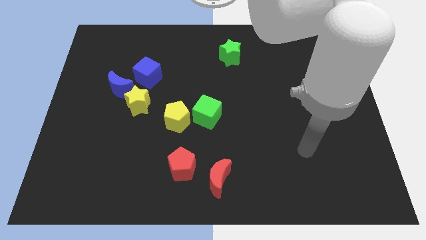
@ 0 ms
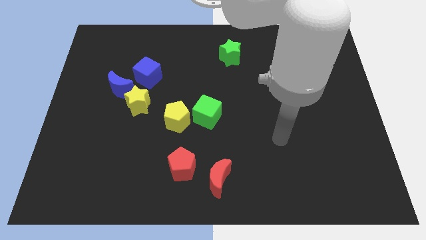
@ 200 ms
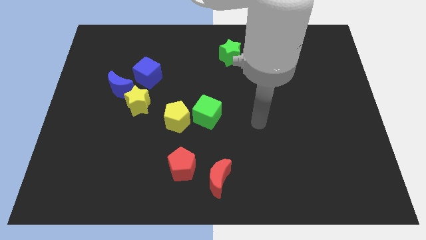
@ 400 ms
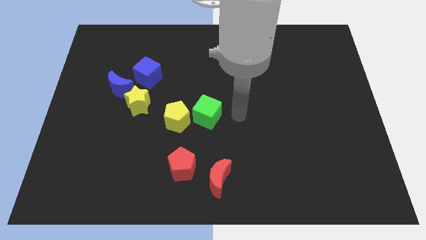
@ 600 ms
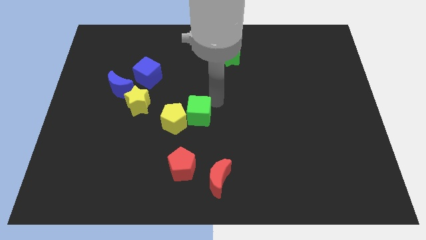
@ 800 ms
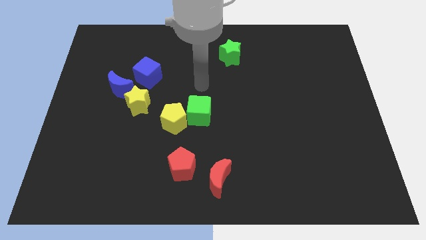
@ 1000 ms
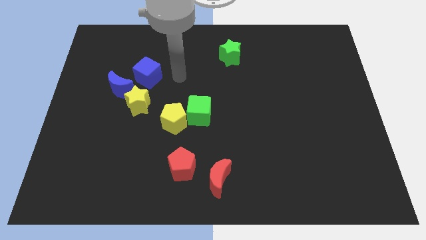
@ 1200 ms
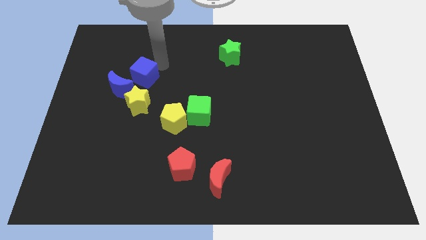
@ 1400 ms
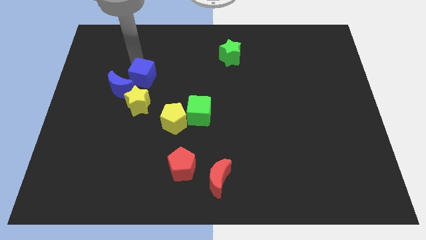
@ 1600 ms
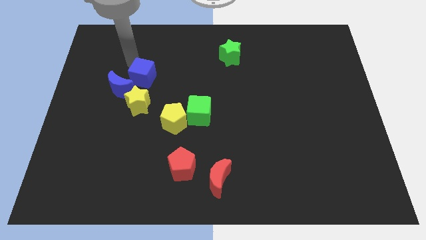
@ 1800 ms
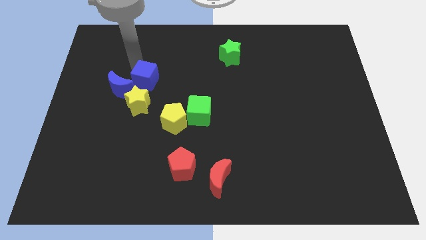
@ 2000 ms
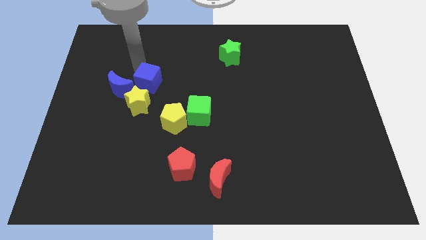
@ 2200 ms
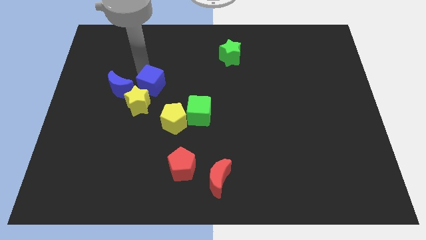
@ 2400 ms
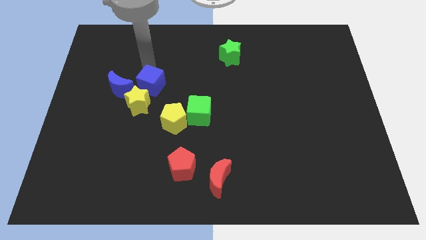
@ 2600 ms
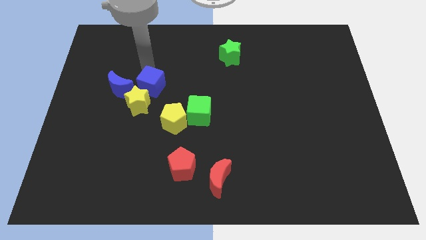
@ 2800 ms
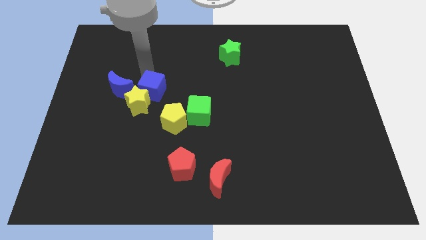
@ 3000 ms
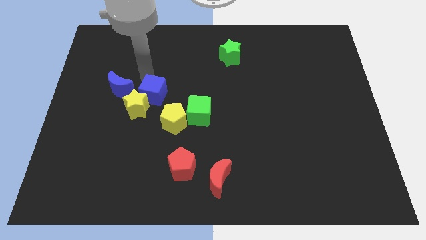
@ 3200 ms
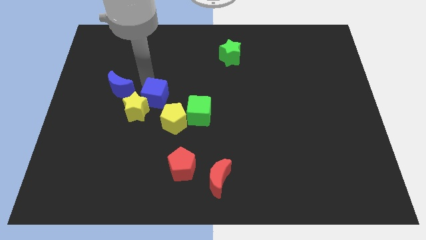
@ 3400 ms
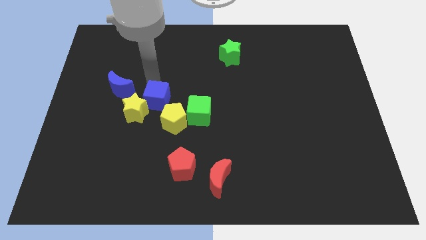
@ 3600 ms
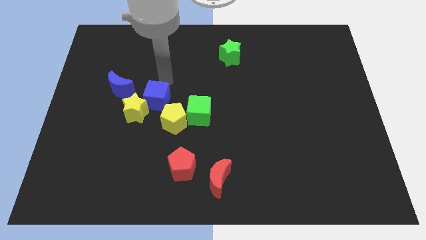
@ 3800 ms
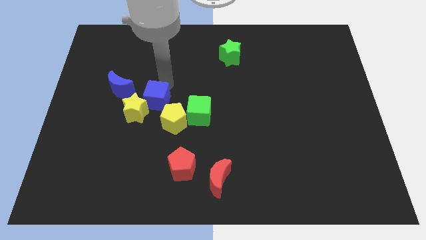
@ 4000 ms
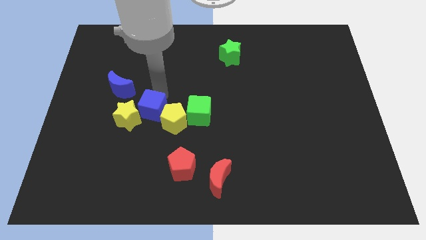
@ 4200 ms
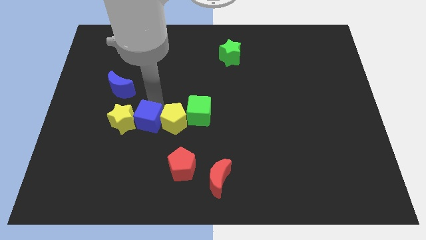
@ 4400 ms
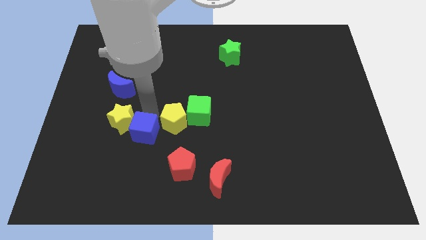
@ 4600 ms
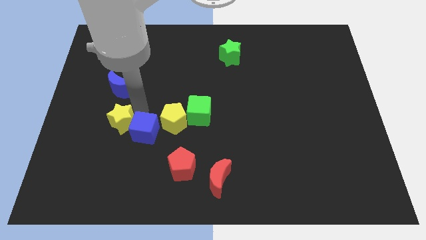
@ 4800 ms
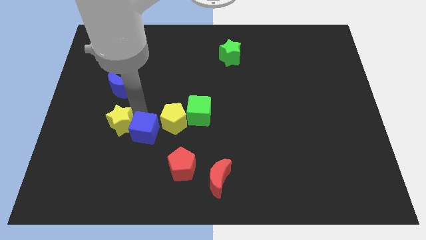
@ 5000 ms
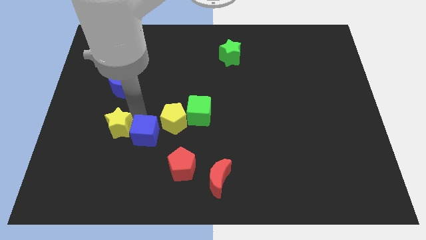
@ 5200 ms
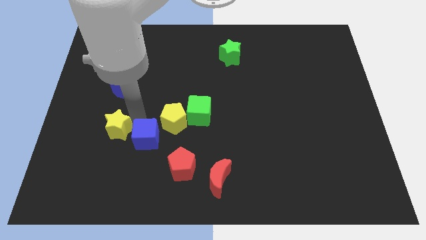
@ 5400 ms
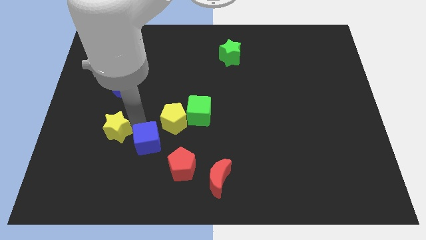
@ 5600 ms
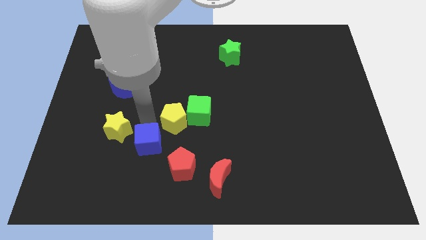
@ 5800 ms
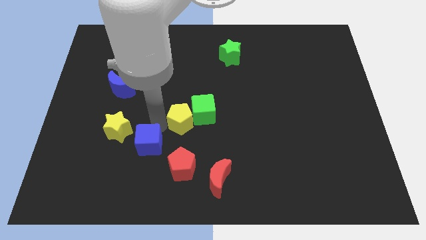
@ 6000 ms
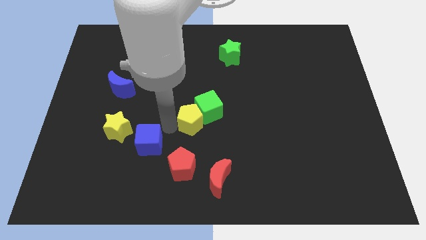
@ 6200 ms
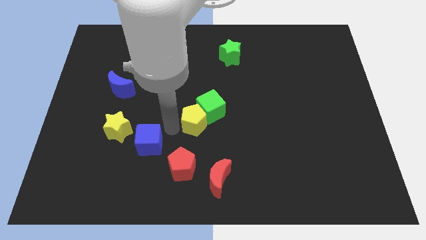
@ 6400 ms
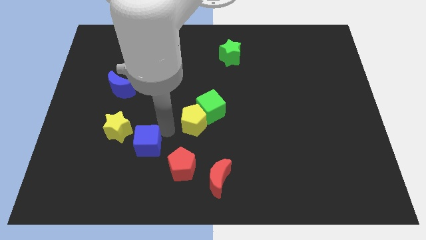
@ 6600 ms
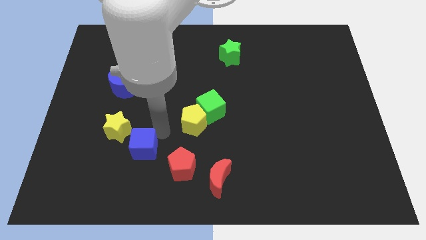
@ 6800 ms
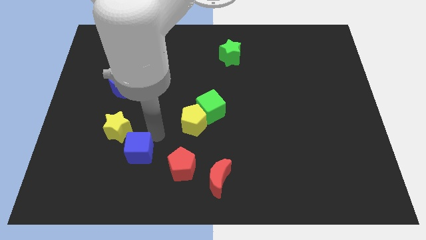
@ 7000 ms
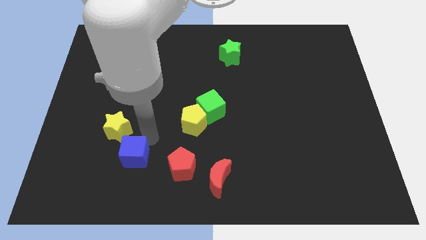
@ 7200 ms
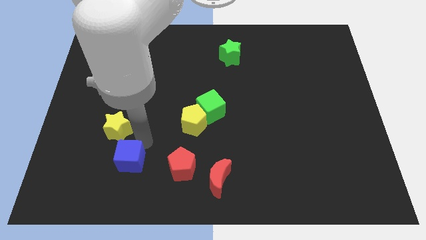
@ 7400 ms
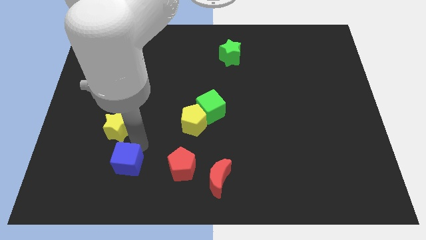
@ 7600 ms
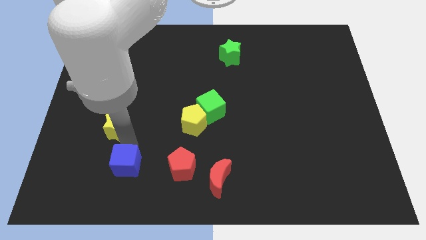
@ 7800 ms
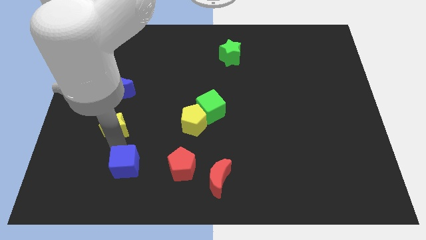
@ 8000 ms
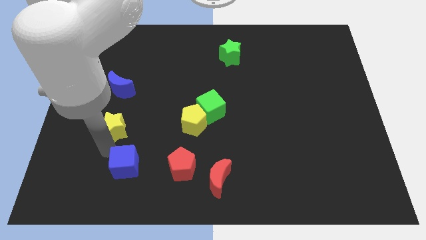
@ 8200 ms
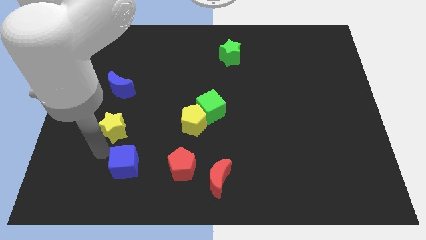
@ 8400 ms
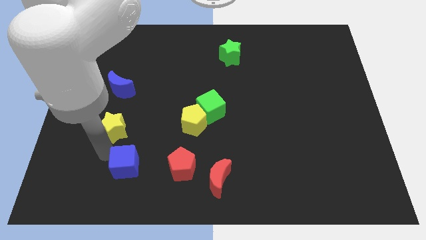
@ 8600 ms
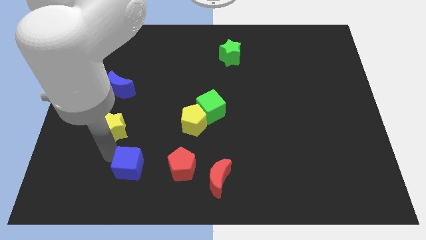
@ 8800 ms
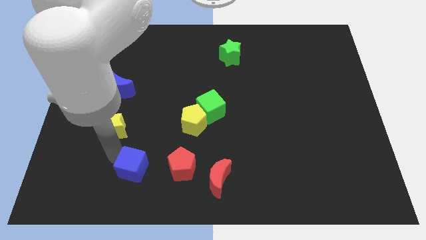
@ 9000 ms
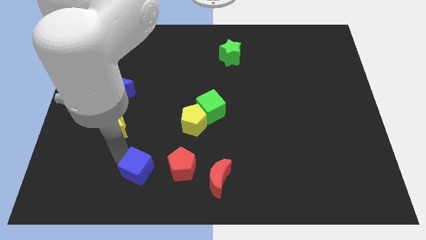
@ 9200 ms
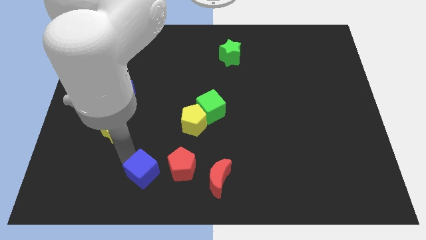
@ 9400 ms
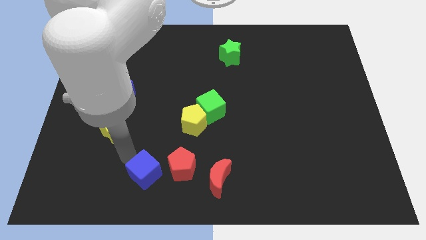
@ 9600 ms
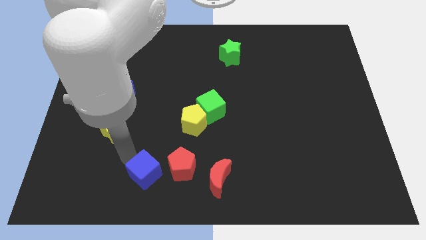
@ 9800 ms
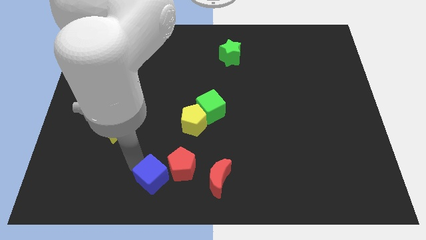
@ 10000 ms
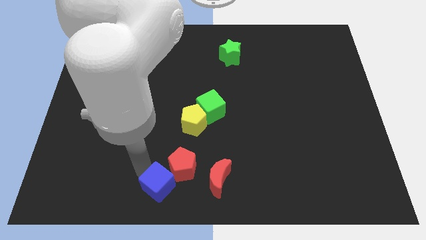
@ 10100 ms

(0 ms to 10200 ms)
move the blue cube to the bottom

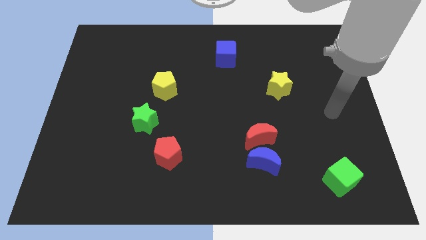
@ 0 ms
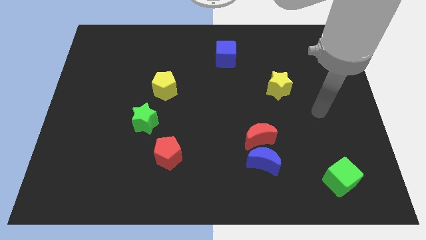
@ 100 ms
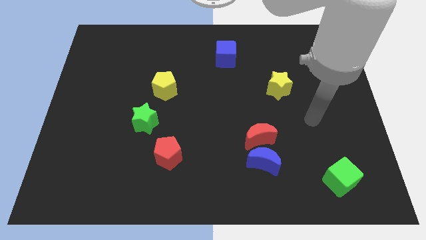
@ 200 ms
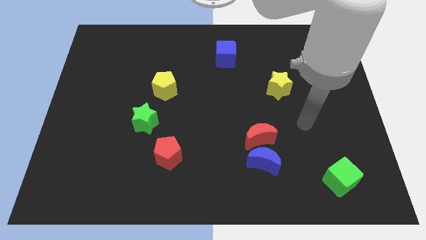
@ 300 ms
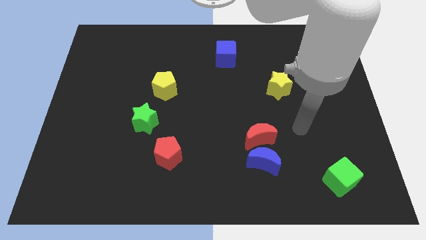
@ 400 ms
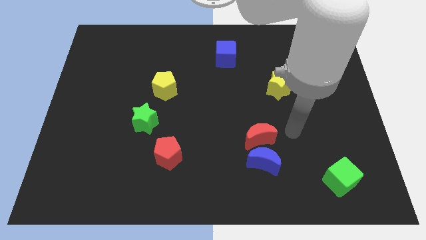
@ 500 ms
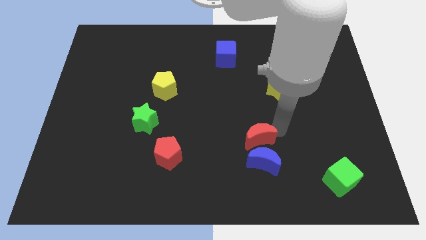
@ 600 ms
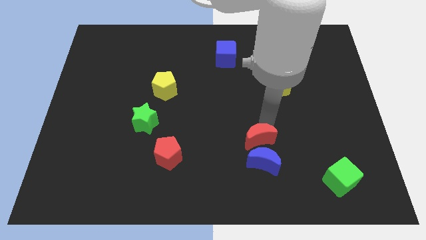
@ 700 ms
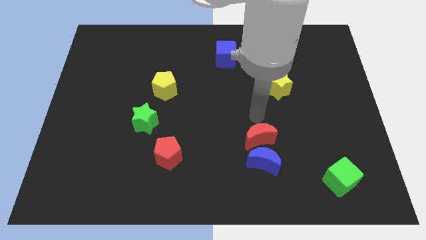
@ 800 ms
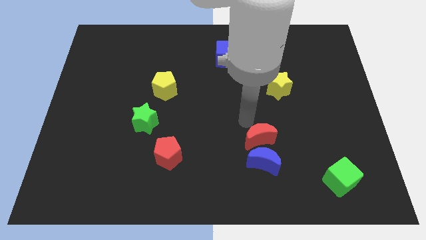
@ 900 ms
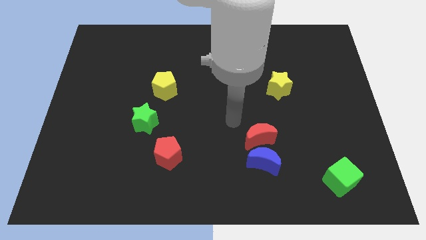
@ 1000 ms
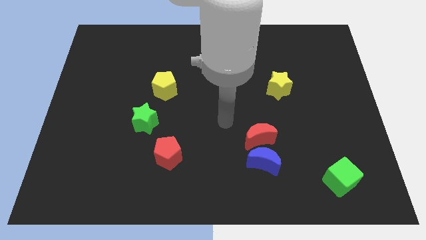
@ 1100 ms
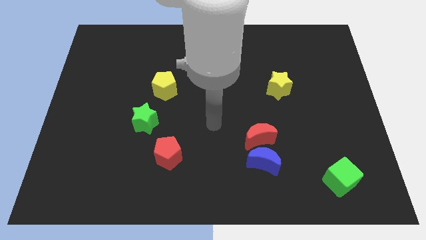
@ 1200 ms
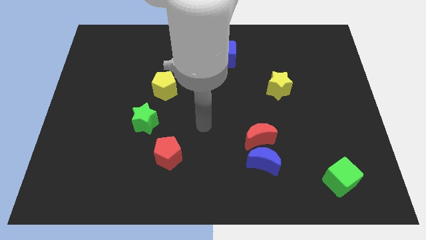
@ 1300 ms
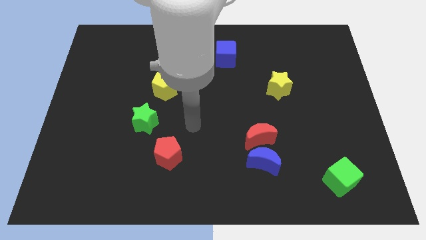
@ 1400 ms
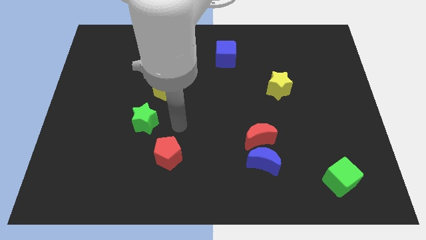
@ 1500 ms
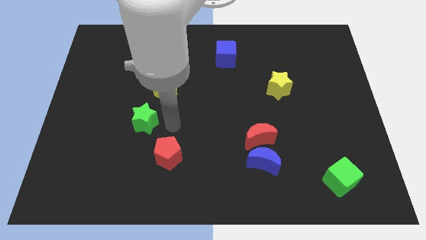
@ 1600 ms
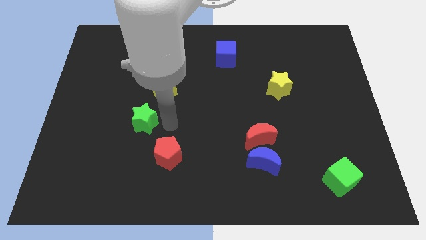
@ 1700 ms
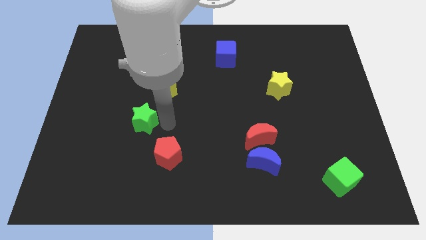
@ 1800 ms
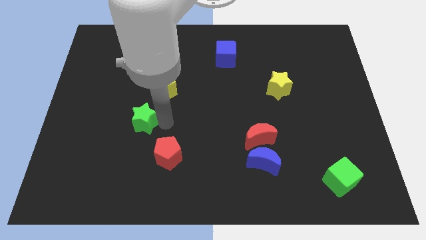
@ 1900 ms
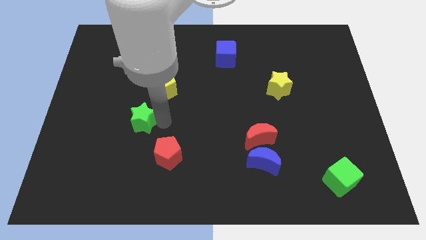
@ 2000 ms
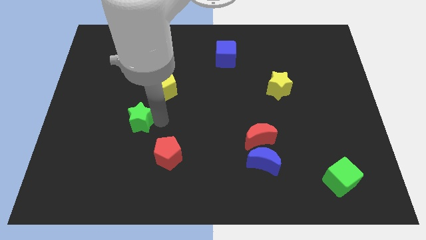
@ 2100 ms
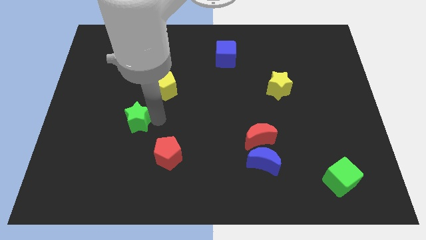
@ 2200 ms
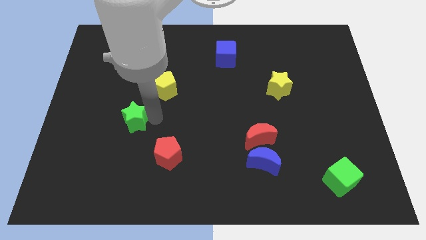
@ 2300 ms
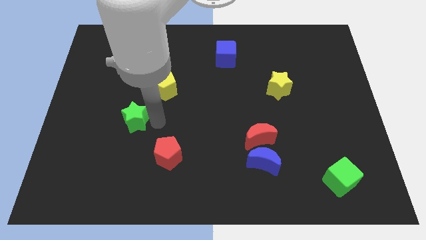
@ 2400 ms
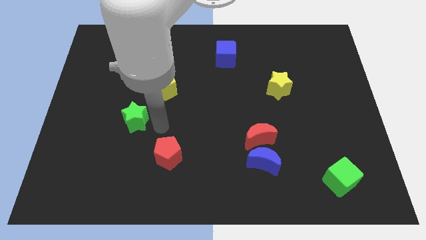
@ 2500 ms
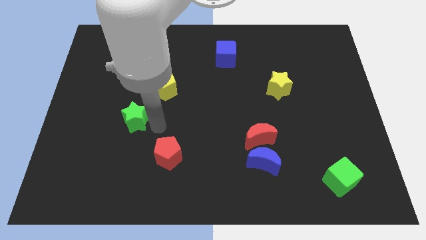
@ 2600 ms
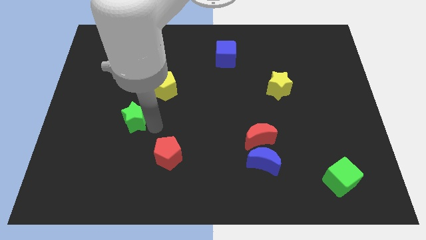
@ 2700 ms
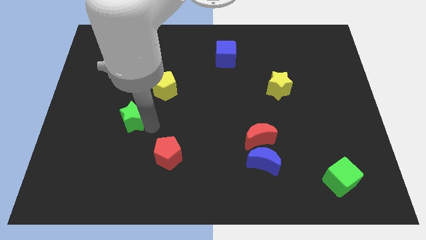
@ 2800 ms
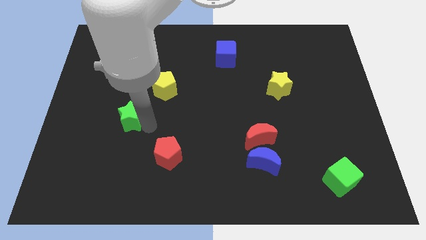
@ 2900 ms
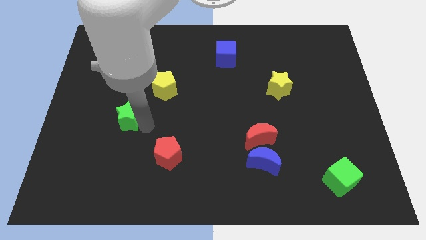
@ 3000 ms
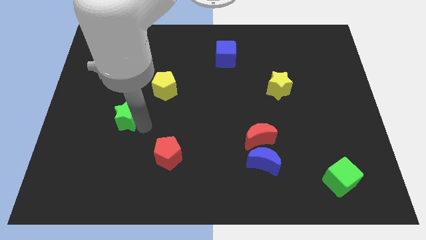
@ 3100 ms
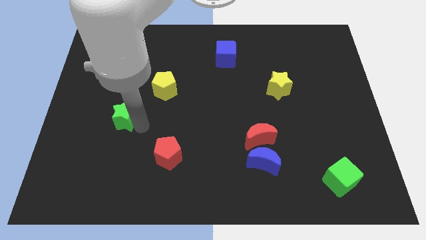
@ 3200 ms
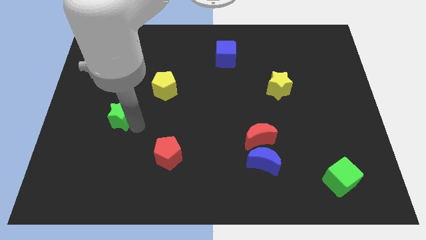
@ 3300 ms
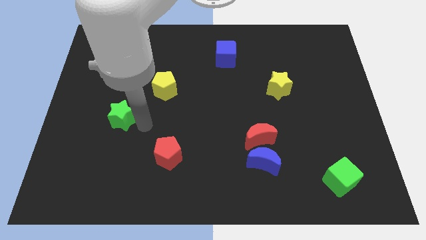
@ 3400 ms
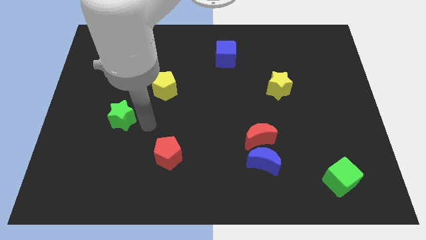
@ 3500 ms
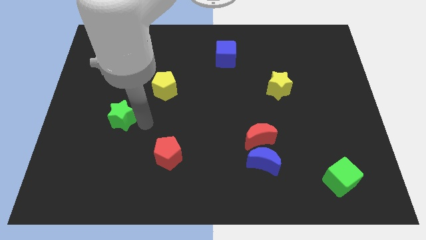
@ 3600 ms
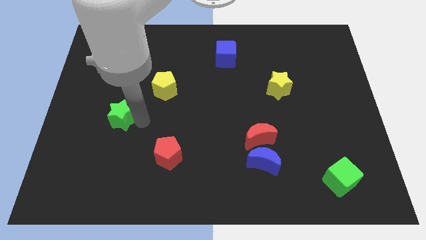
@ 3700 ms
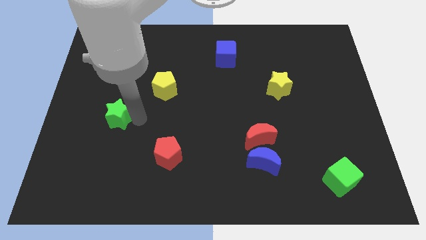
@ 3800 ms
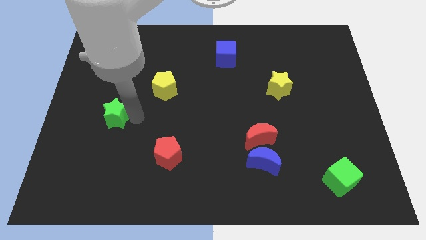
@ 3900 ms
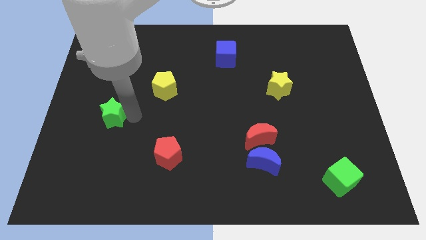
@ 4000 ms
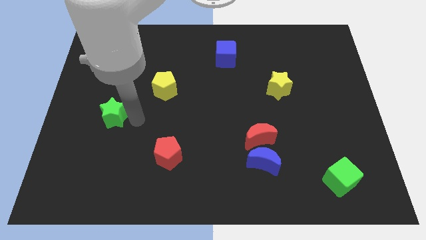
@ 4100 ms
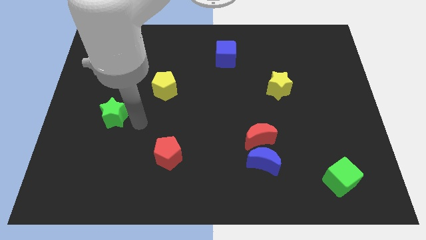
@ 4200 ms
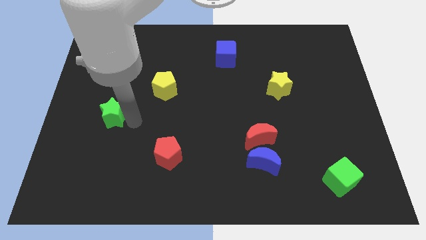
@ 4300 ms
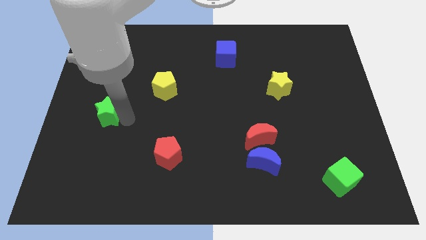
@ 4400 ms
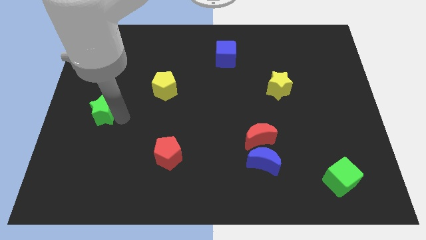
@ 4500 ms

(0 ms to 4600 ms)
put the green star to the center left
